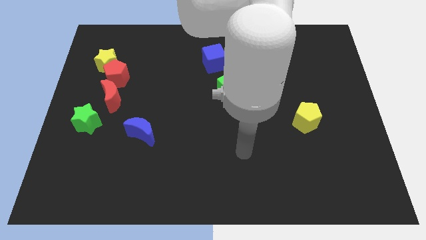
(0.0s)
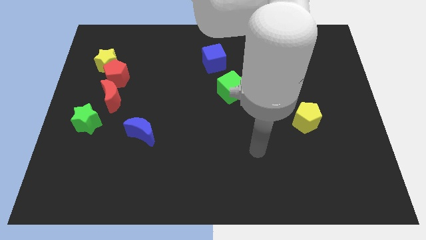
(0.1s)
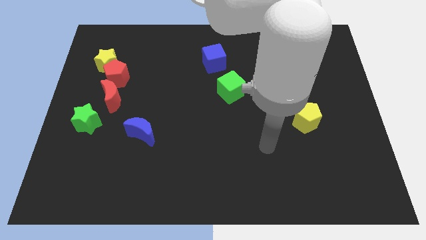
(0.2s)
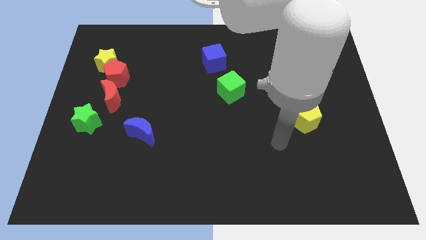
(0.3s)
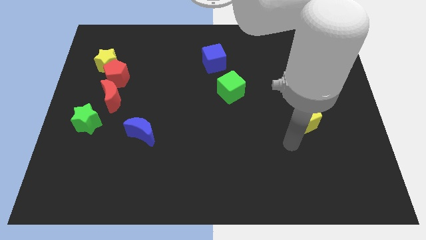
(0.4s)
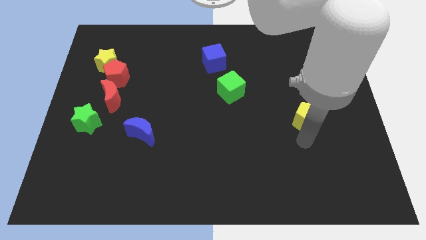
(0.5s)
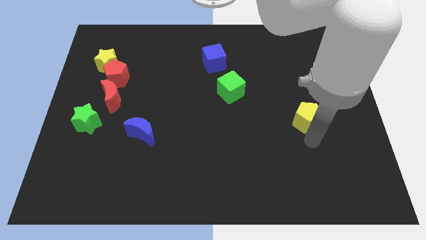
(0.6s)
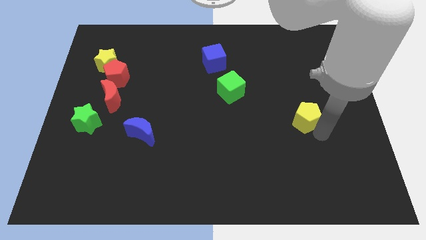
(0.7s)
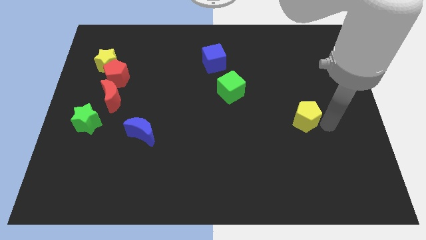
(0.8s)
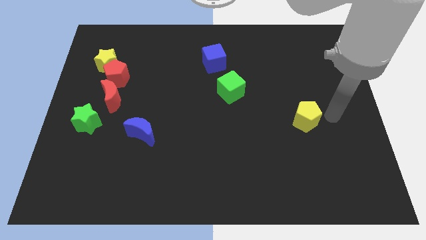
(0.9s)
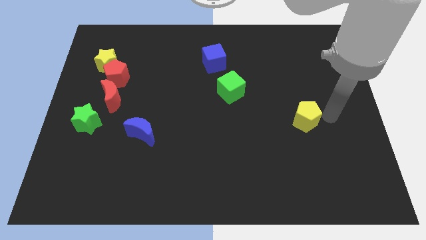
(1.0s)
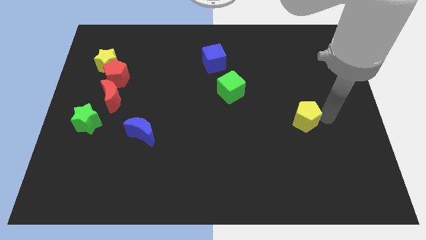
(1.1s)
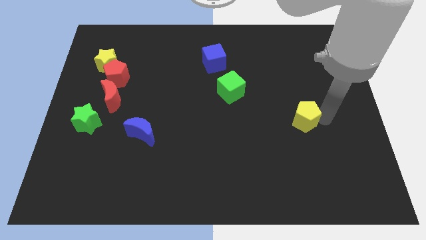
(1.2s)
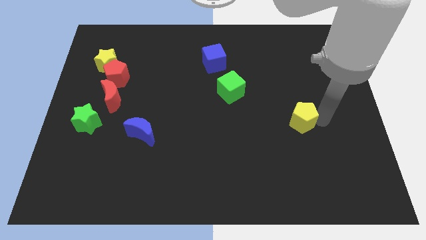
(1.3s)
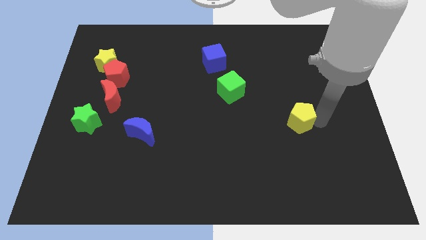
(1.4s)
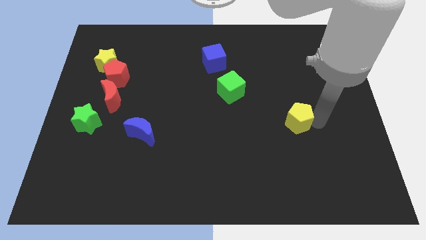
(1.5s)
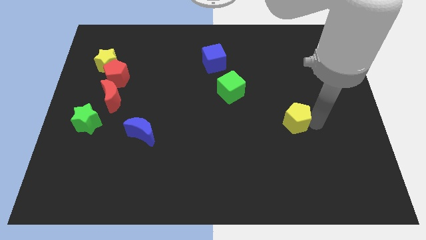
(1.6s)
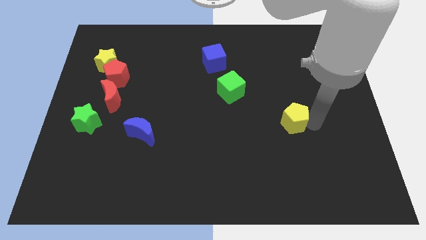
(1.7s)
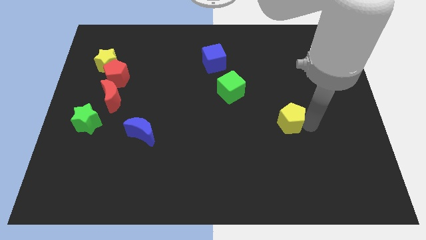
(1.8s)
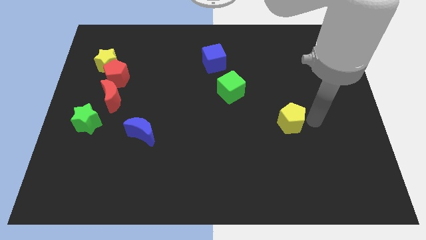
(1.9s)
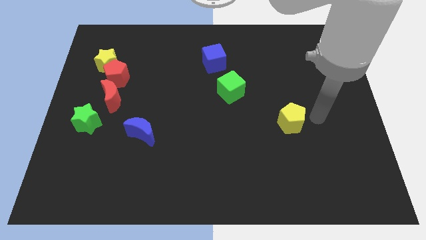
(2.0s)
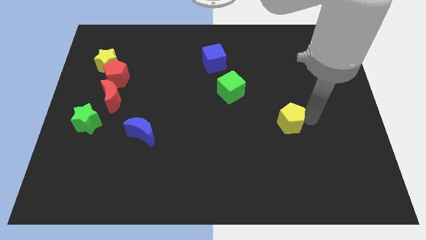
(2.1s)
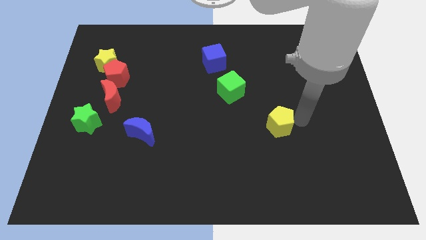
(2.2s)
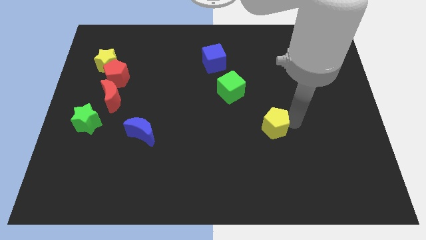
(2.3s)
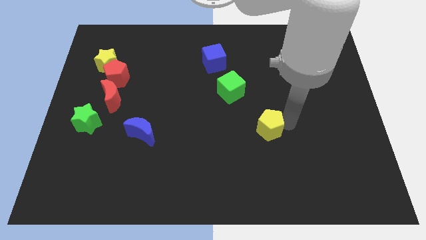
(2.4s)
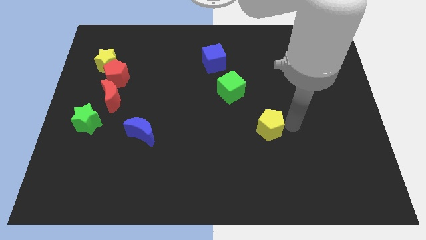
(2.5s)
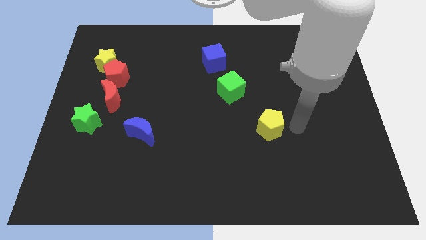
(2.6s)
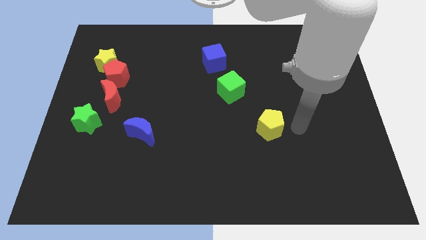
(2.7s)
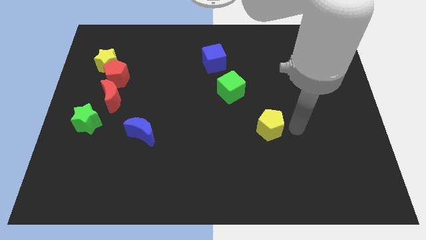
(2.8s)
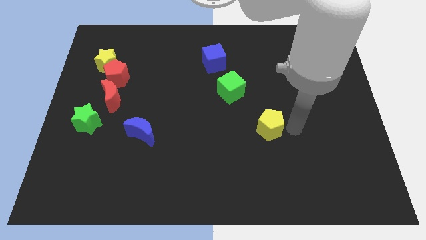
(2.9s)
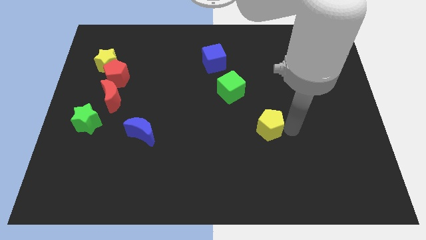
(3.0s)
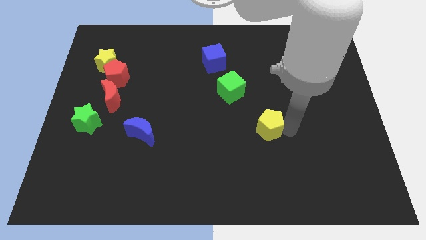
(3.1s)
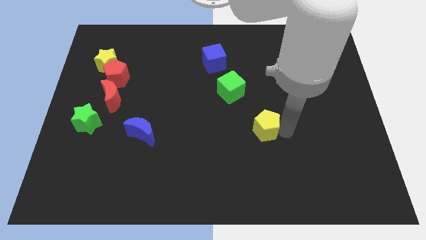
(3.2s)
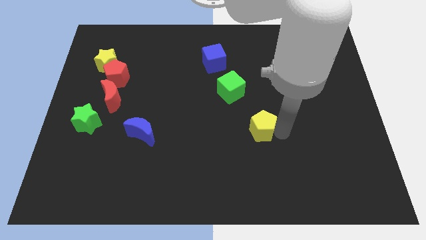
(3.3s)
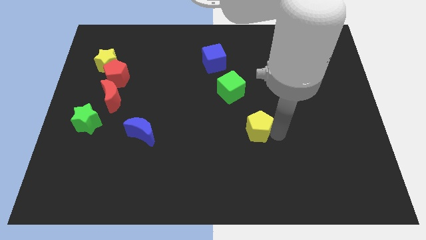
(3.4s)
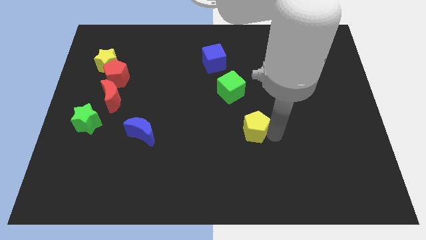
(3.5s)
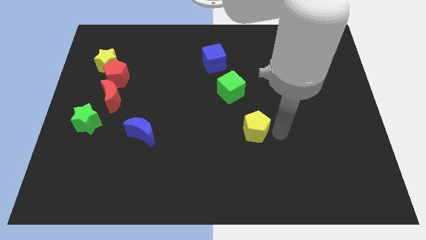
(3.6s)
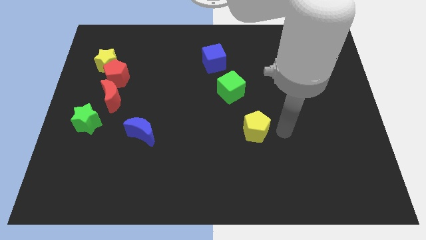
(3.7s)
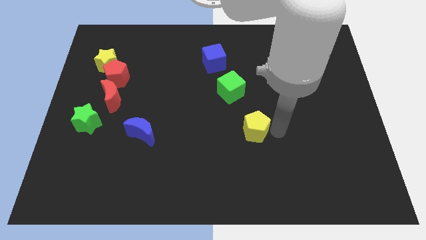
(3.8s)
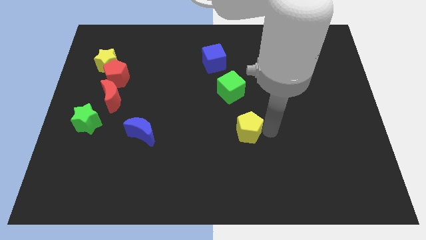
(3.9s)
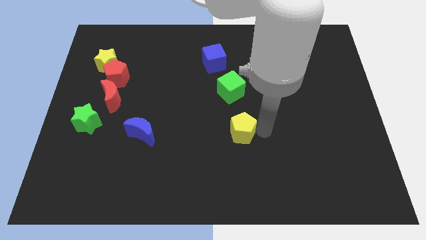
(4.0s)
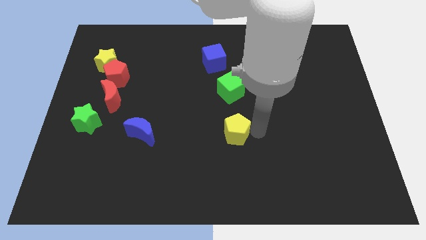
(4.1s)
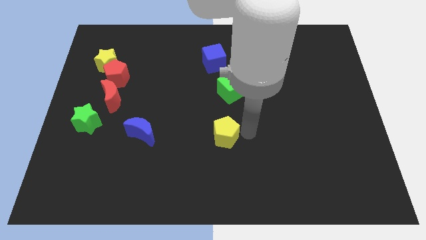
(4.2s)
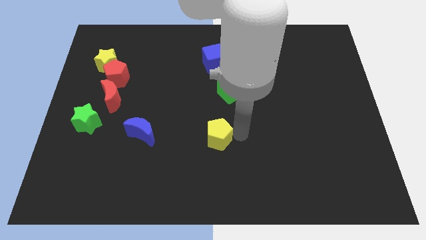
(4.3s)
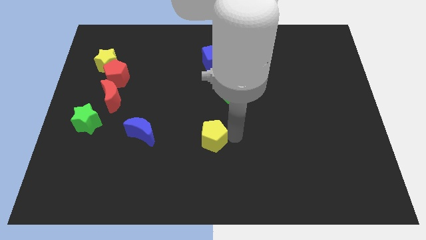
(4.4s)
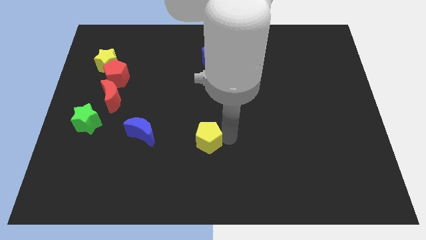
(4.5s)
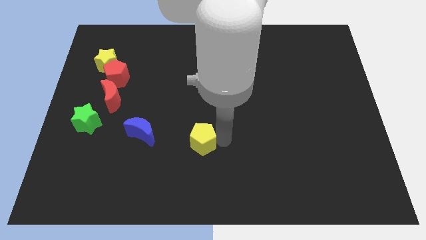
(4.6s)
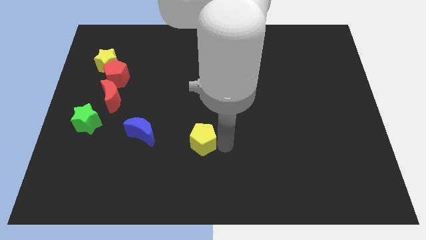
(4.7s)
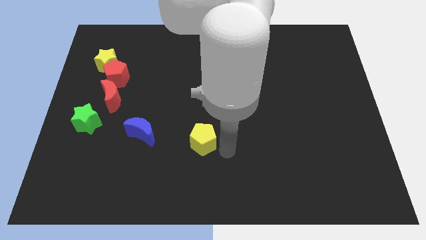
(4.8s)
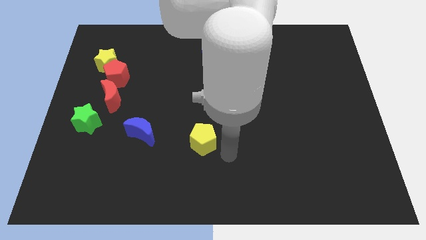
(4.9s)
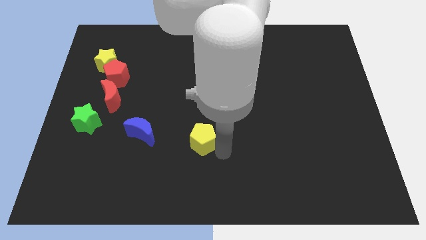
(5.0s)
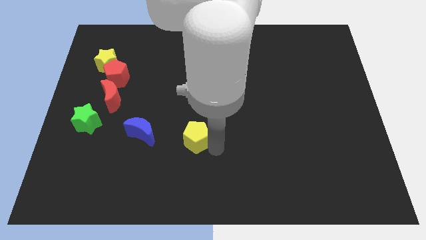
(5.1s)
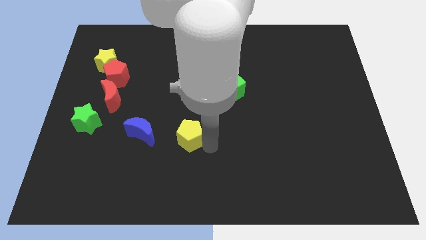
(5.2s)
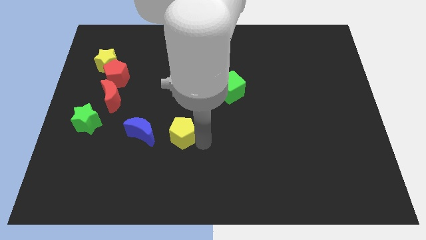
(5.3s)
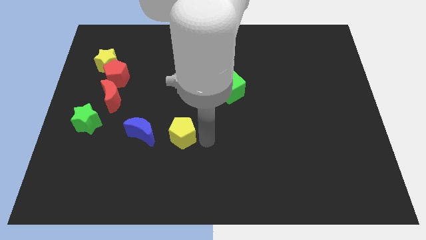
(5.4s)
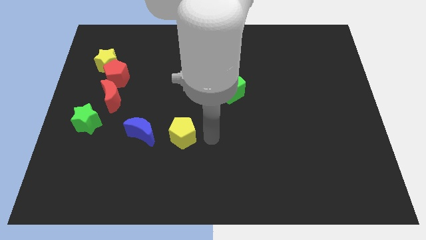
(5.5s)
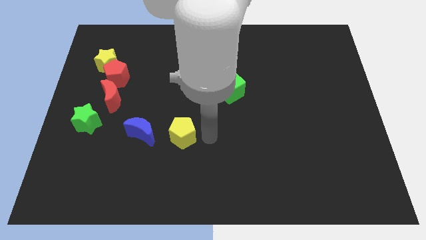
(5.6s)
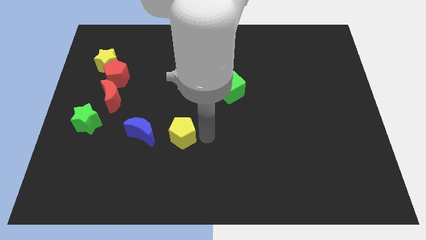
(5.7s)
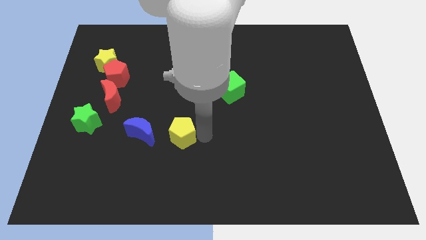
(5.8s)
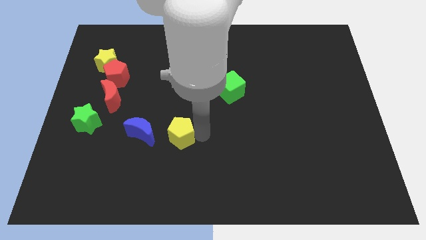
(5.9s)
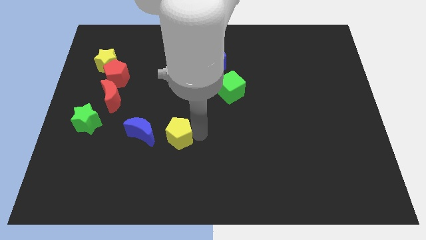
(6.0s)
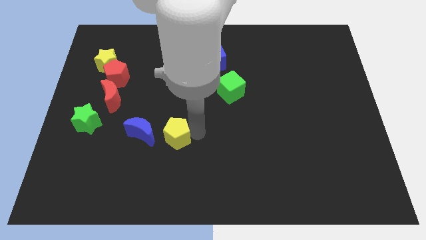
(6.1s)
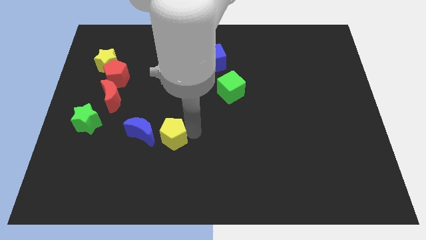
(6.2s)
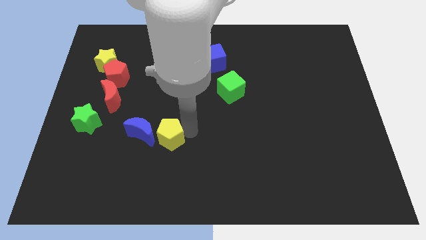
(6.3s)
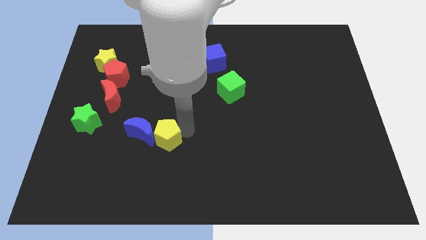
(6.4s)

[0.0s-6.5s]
put the yellow pentagon towards the blue moon

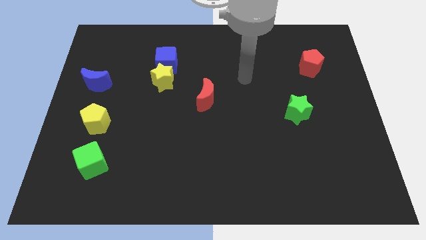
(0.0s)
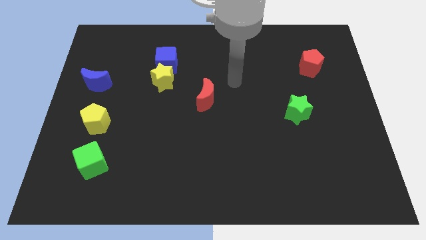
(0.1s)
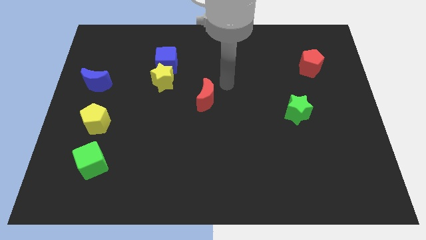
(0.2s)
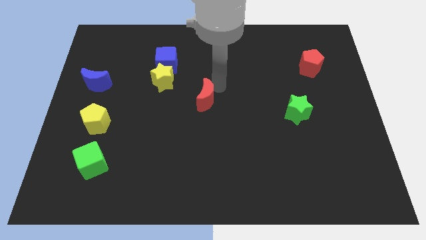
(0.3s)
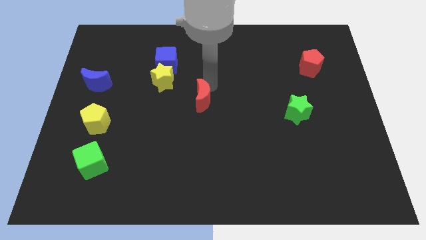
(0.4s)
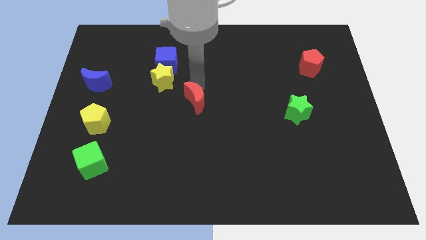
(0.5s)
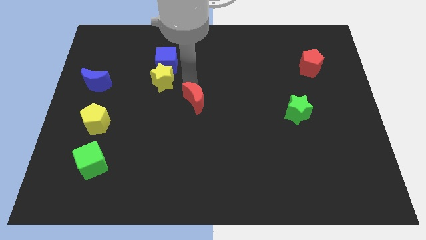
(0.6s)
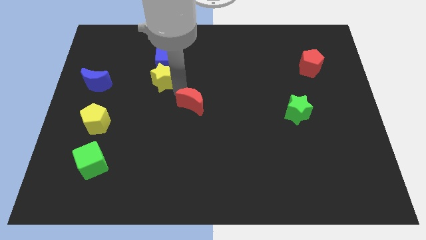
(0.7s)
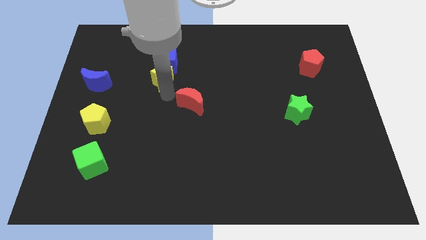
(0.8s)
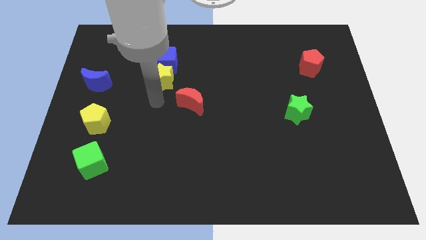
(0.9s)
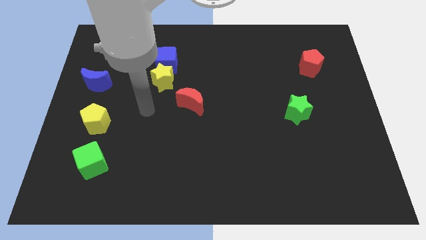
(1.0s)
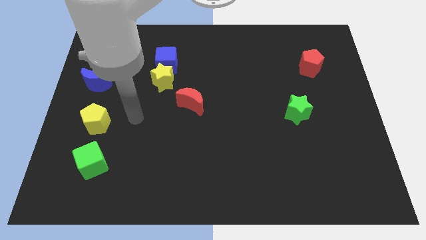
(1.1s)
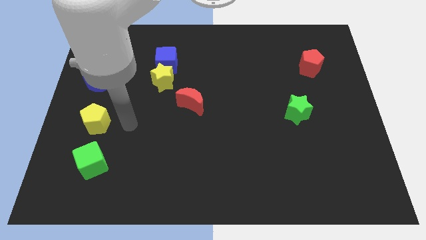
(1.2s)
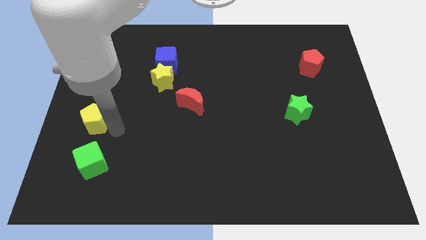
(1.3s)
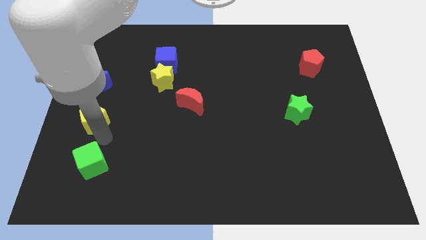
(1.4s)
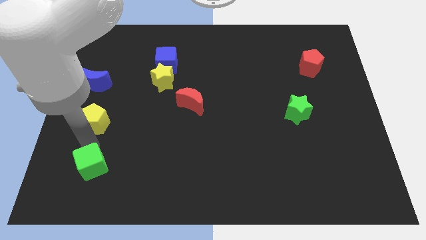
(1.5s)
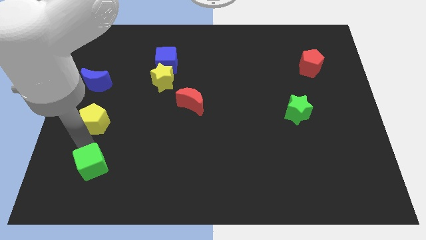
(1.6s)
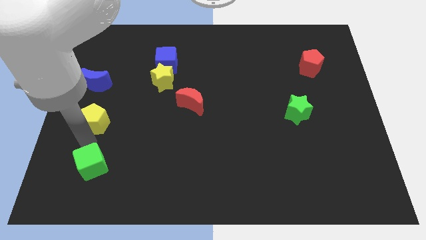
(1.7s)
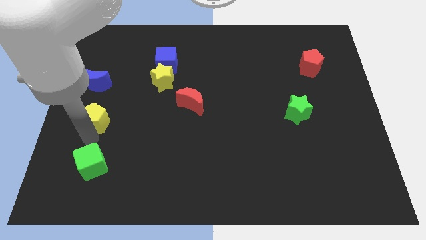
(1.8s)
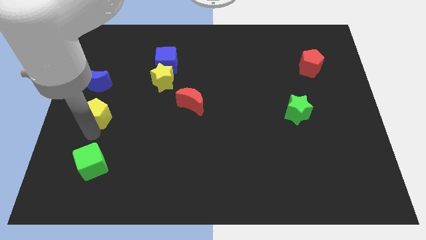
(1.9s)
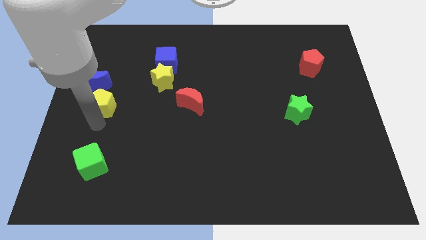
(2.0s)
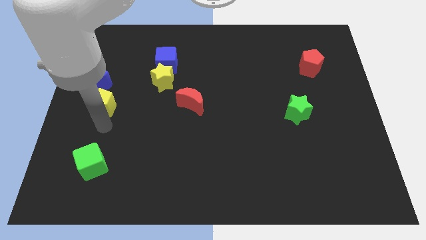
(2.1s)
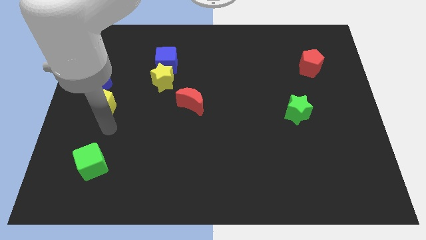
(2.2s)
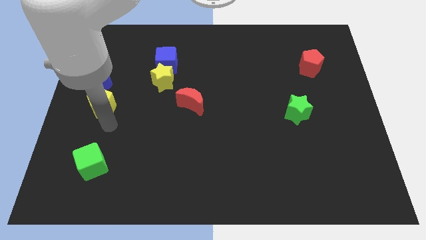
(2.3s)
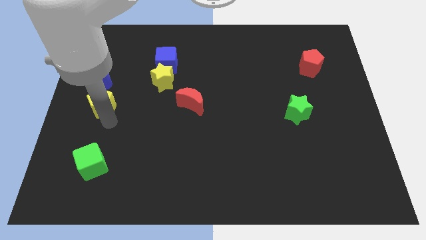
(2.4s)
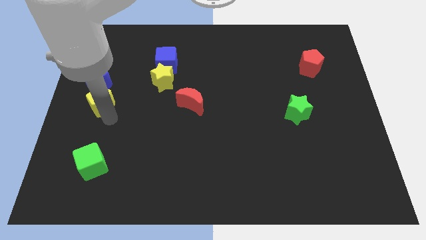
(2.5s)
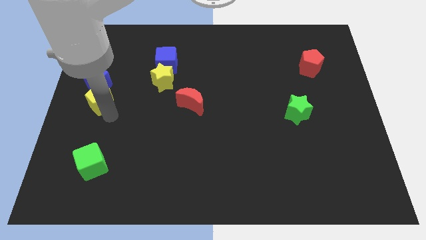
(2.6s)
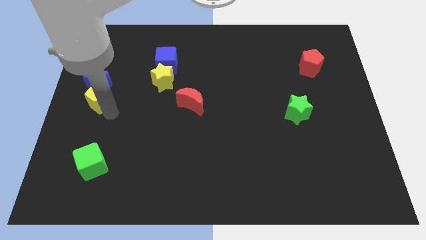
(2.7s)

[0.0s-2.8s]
put the yellow pentagon to the blue moon
